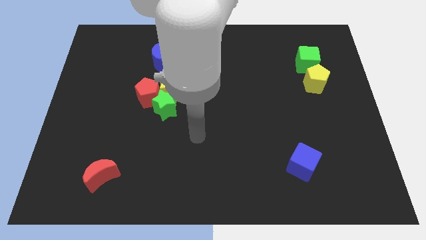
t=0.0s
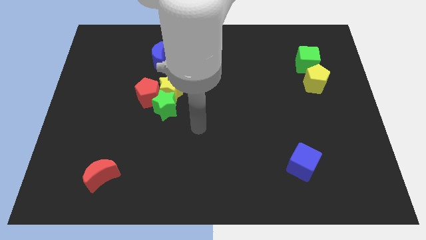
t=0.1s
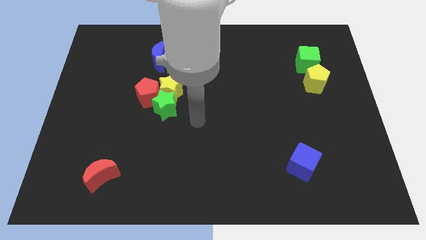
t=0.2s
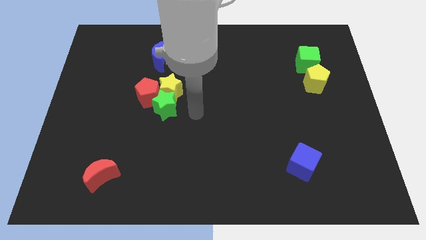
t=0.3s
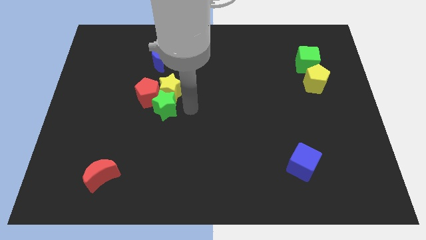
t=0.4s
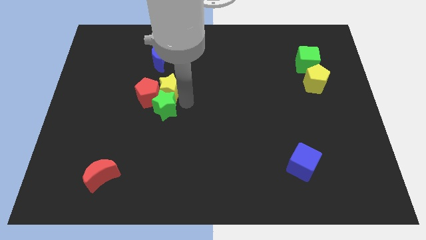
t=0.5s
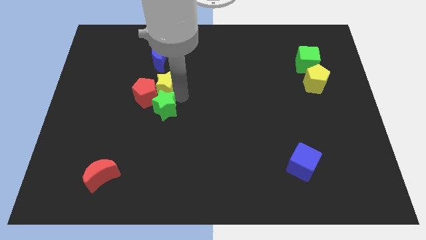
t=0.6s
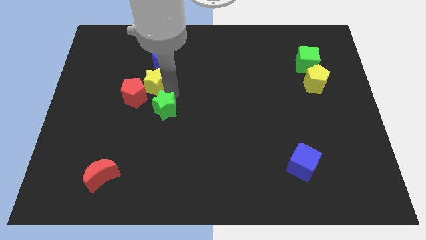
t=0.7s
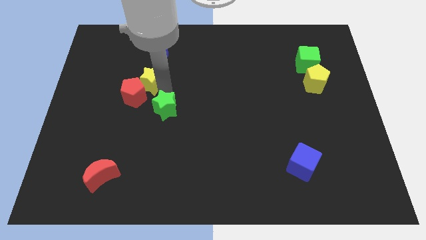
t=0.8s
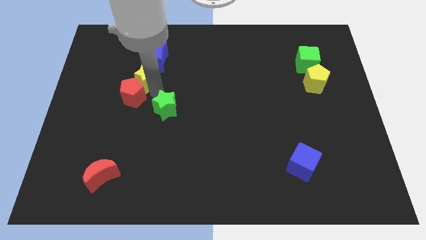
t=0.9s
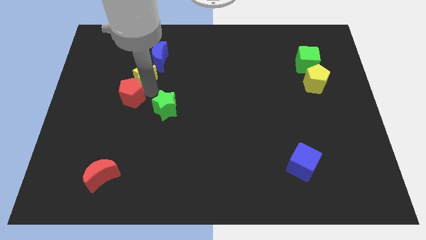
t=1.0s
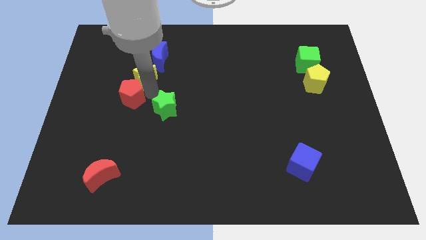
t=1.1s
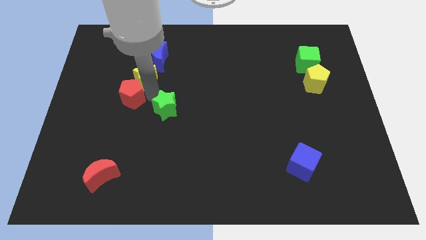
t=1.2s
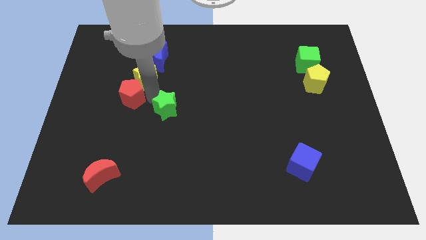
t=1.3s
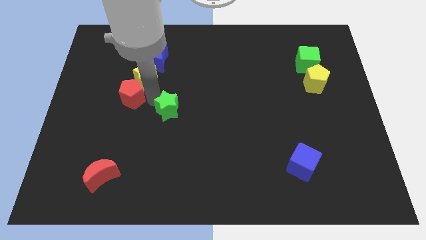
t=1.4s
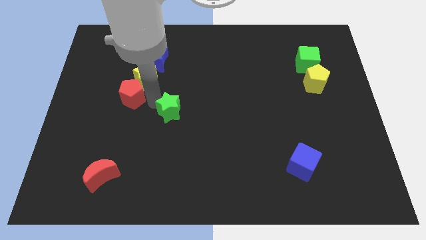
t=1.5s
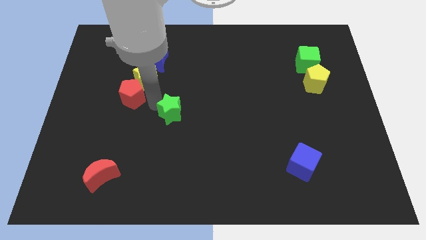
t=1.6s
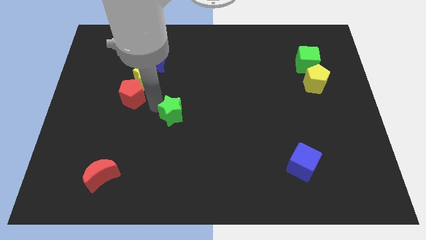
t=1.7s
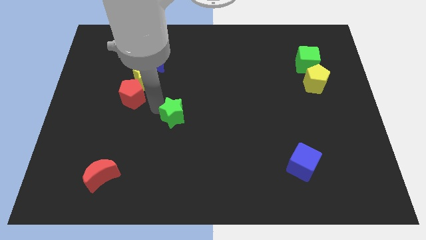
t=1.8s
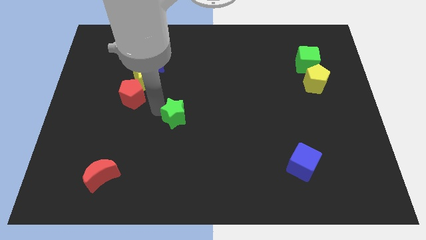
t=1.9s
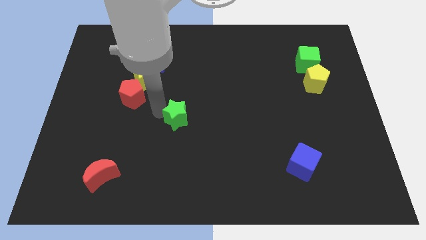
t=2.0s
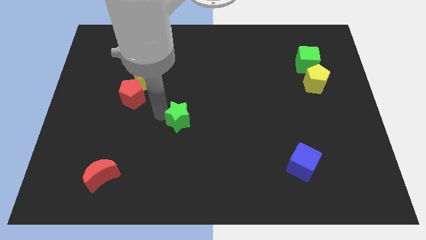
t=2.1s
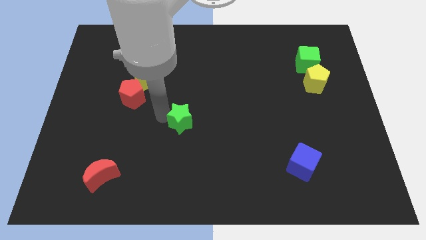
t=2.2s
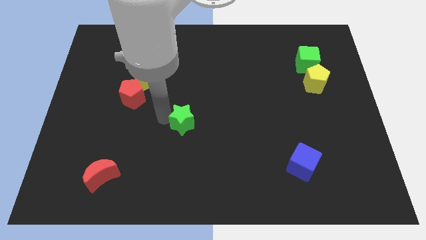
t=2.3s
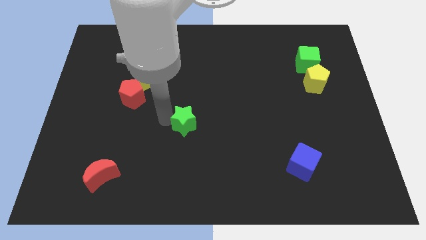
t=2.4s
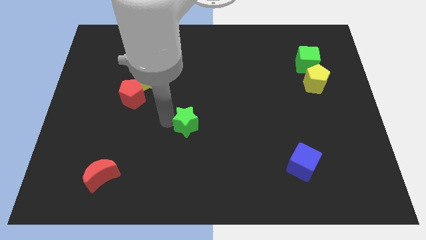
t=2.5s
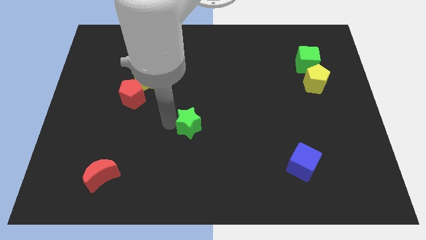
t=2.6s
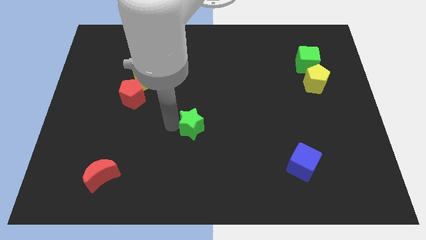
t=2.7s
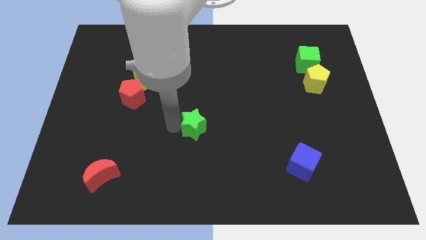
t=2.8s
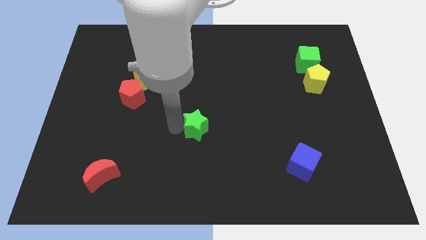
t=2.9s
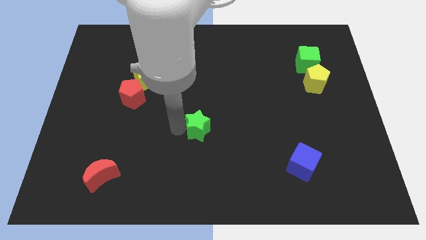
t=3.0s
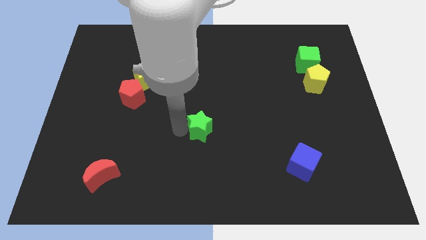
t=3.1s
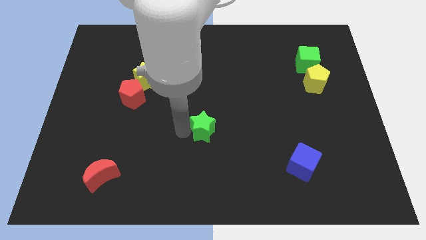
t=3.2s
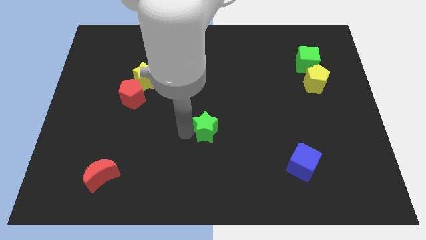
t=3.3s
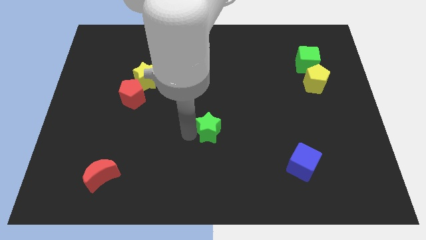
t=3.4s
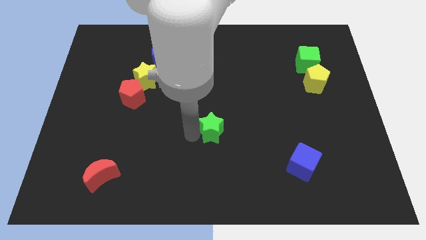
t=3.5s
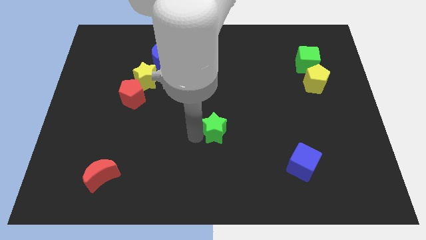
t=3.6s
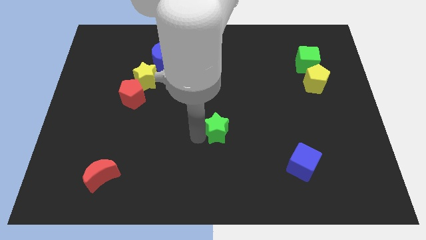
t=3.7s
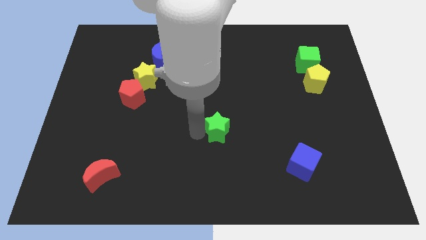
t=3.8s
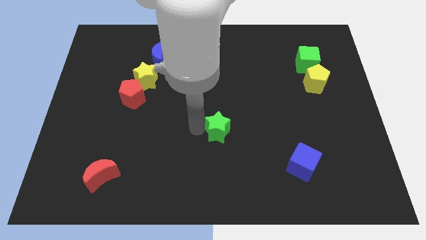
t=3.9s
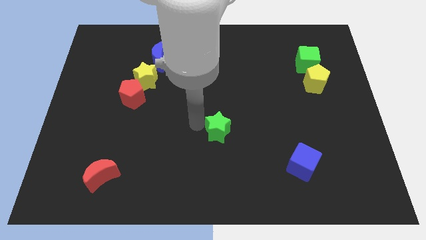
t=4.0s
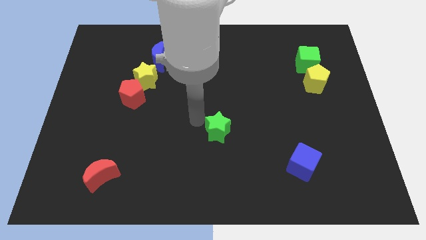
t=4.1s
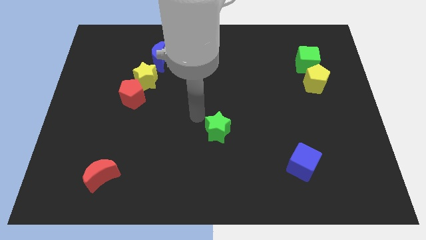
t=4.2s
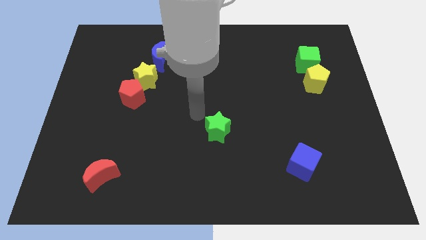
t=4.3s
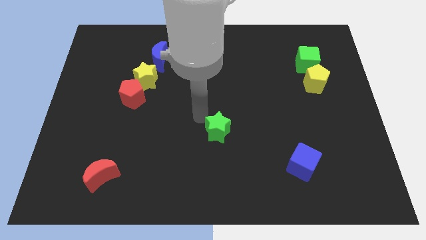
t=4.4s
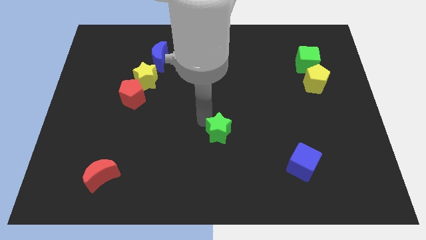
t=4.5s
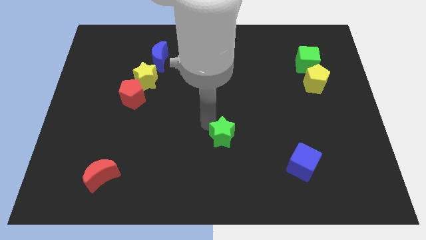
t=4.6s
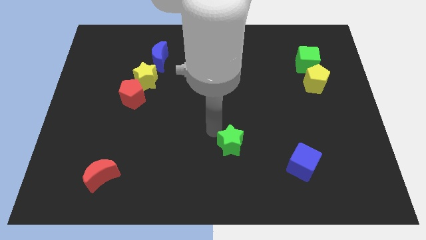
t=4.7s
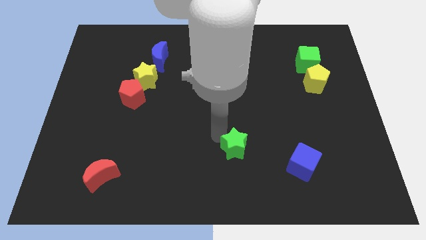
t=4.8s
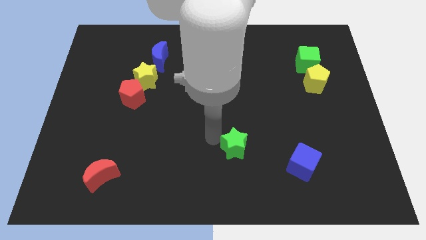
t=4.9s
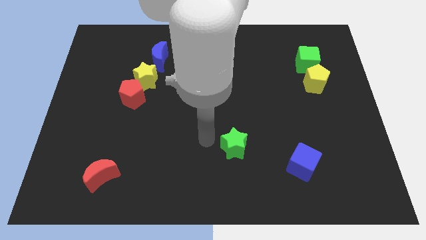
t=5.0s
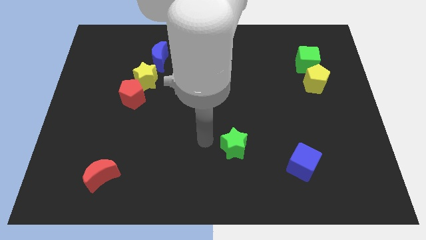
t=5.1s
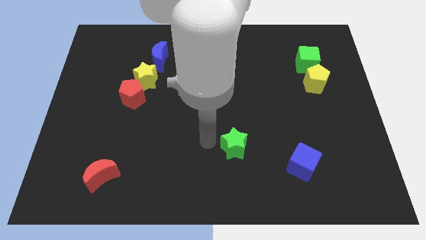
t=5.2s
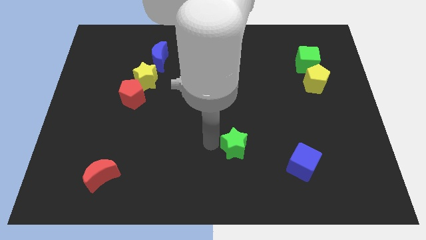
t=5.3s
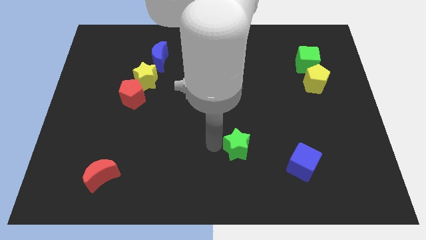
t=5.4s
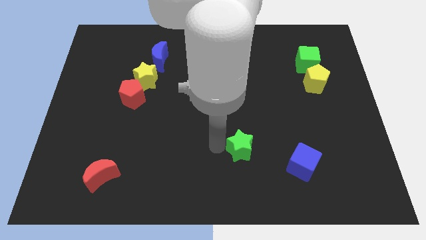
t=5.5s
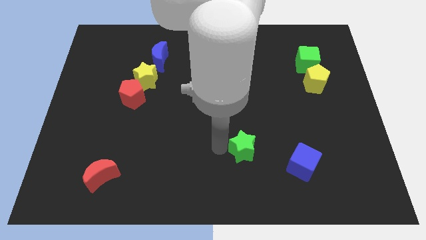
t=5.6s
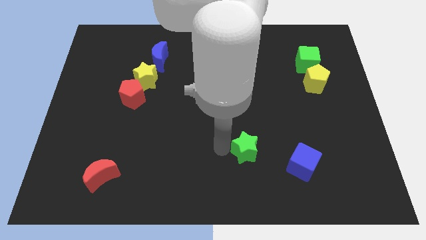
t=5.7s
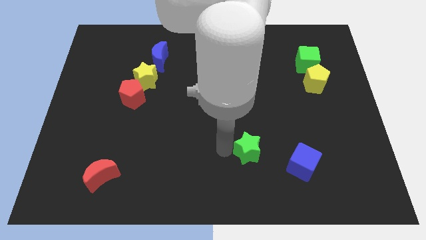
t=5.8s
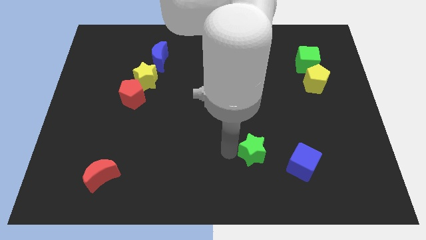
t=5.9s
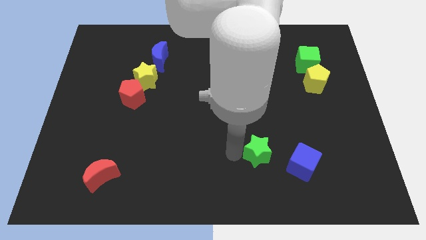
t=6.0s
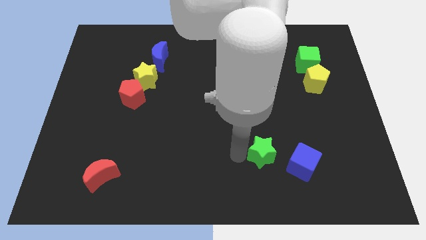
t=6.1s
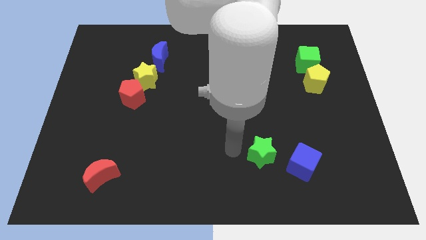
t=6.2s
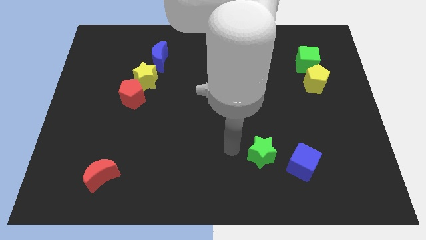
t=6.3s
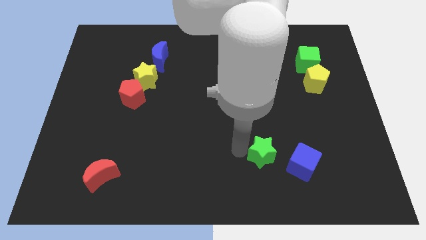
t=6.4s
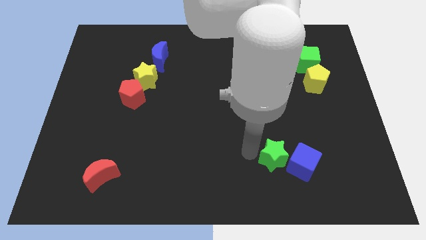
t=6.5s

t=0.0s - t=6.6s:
slide the green star to the blue cube

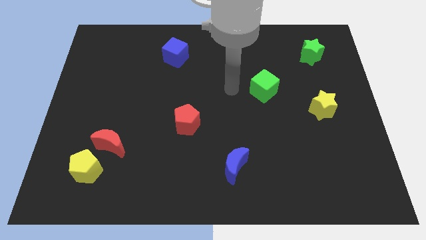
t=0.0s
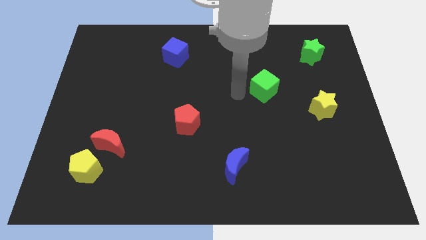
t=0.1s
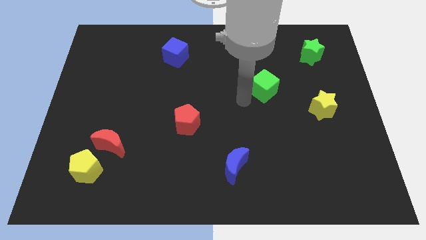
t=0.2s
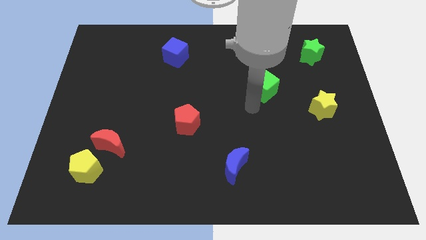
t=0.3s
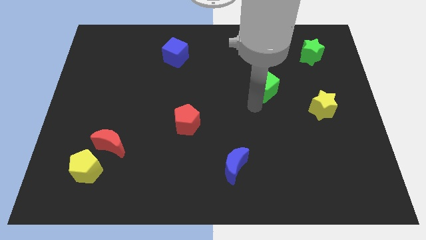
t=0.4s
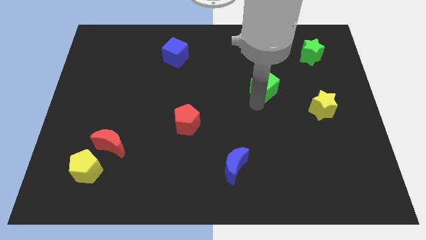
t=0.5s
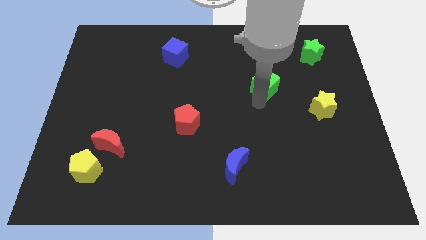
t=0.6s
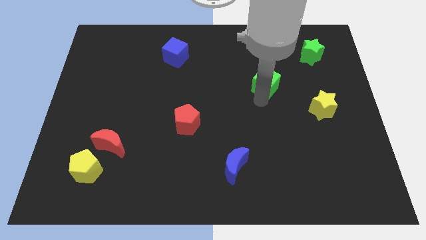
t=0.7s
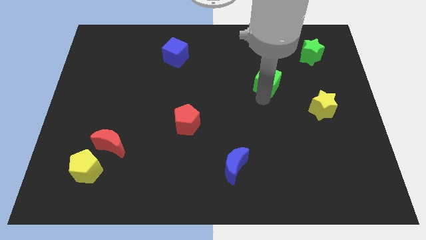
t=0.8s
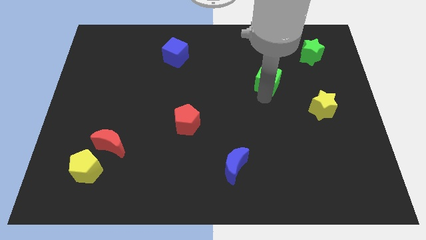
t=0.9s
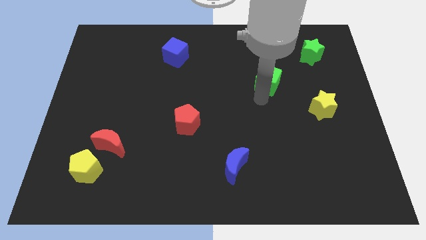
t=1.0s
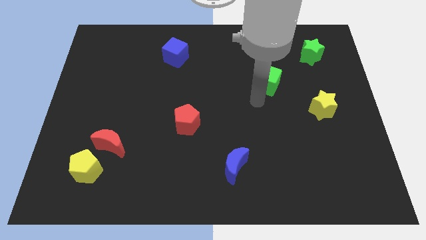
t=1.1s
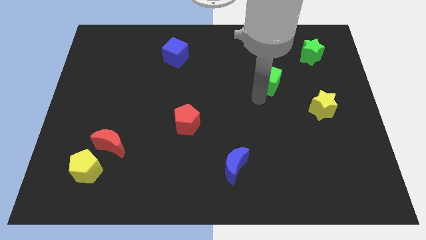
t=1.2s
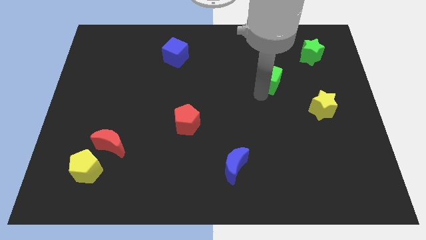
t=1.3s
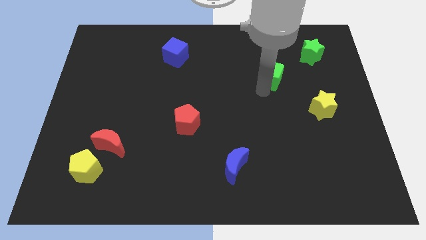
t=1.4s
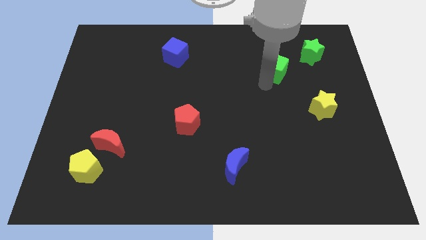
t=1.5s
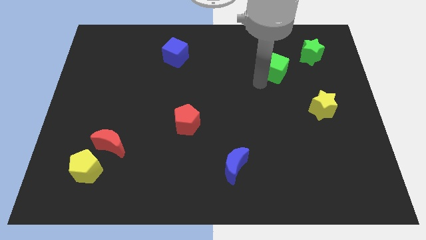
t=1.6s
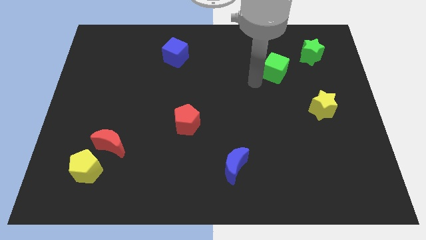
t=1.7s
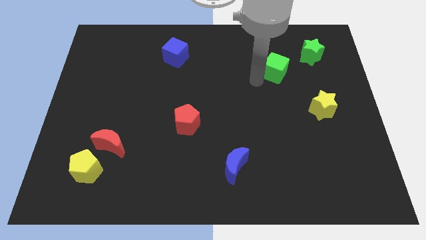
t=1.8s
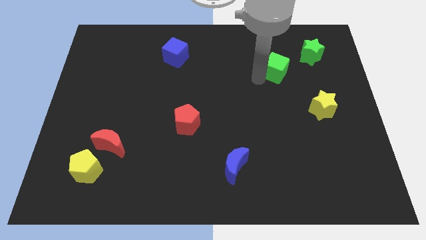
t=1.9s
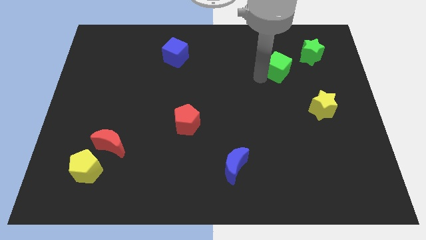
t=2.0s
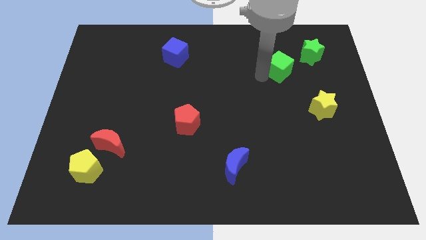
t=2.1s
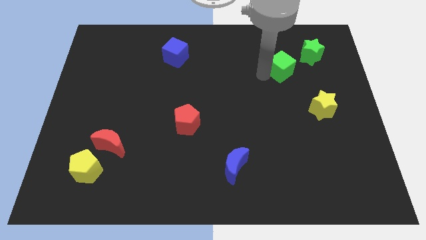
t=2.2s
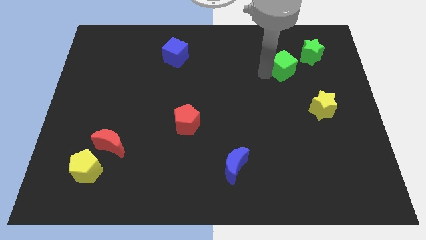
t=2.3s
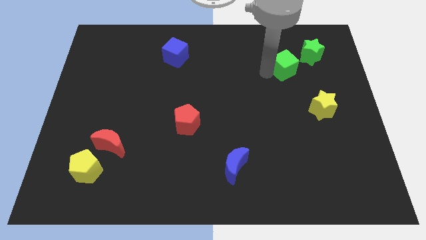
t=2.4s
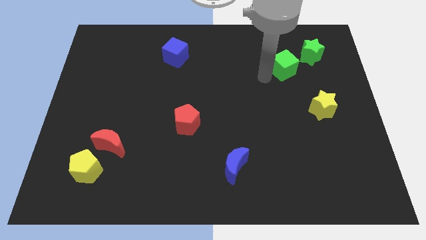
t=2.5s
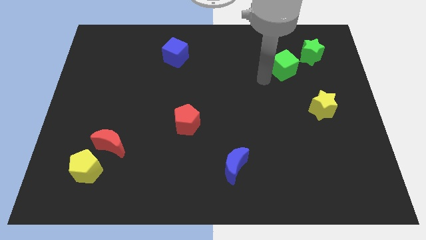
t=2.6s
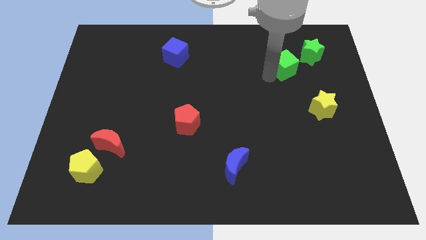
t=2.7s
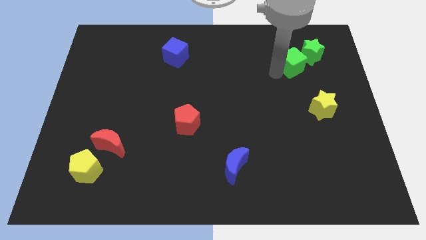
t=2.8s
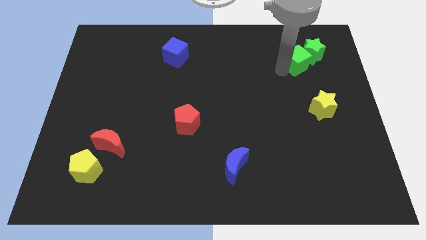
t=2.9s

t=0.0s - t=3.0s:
push the green cube close to the green star
